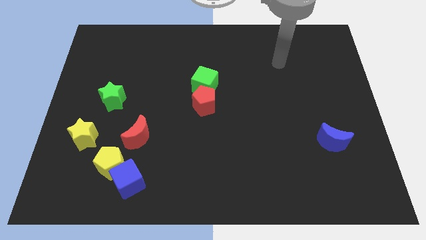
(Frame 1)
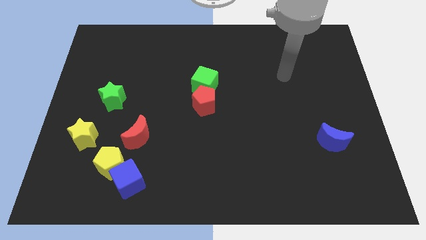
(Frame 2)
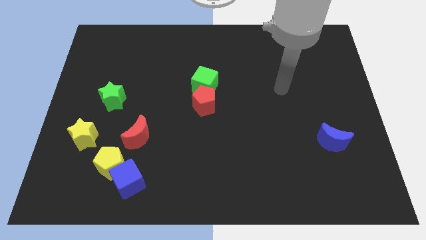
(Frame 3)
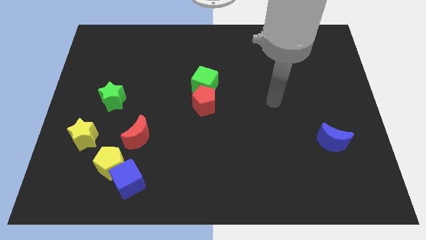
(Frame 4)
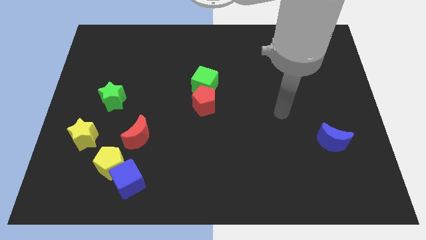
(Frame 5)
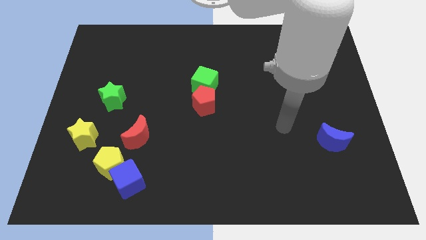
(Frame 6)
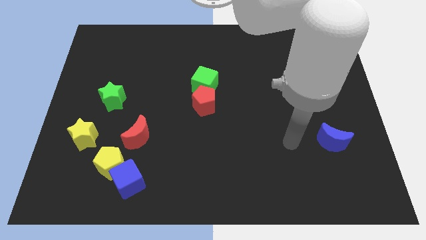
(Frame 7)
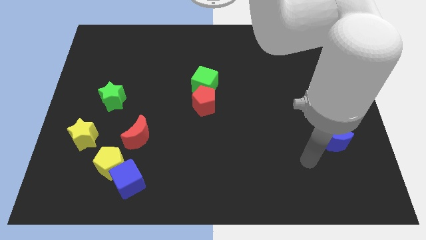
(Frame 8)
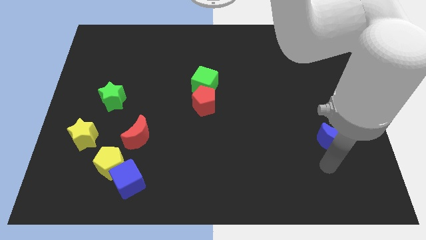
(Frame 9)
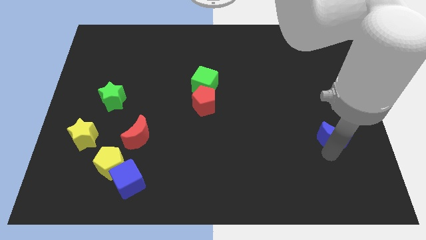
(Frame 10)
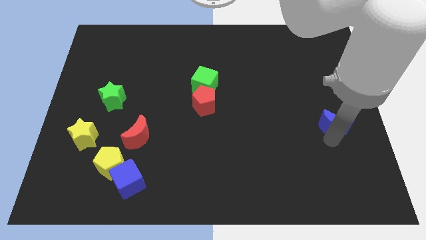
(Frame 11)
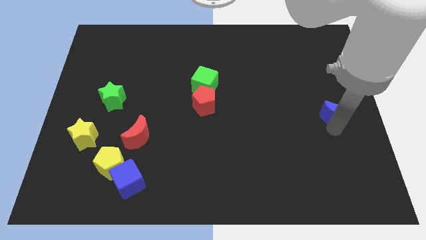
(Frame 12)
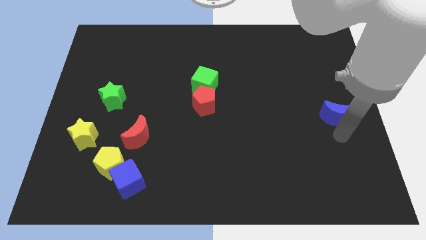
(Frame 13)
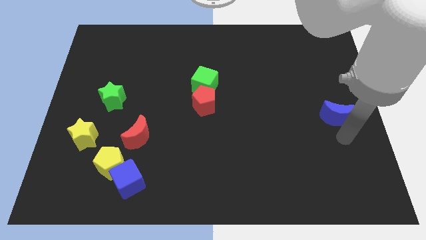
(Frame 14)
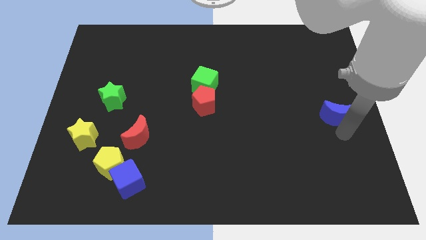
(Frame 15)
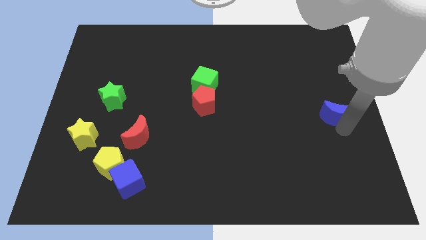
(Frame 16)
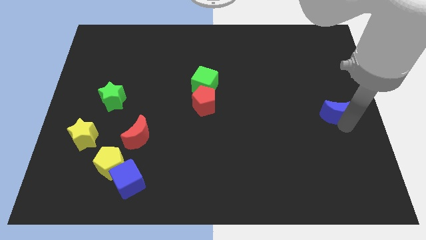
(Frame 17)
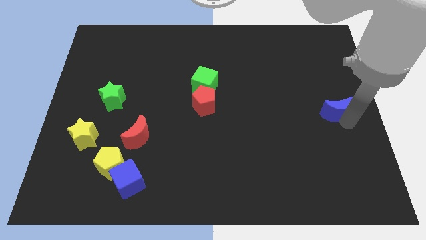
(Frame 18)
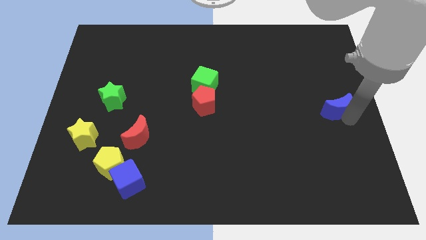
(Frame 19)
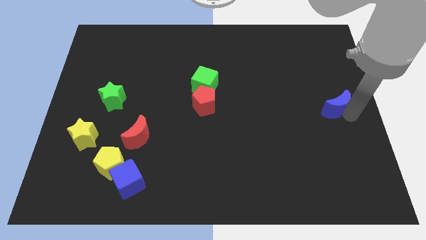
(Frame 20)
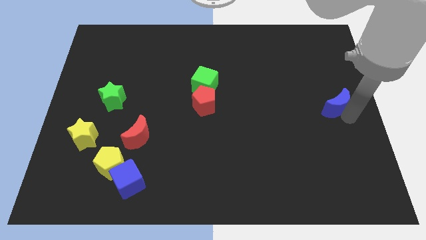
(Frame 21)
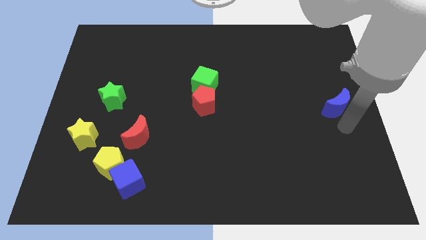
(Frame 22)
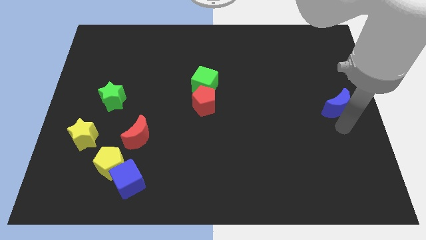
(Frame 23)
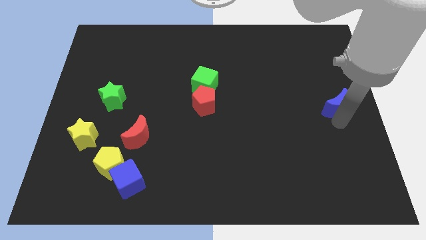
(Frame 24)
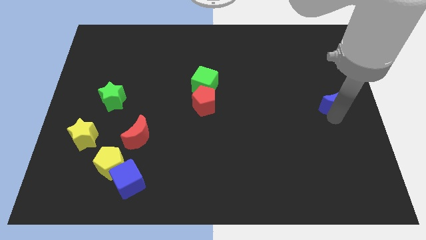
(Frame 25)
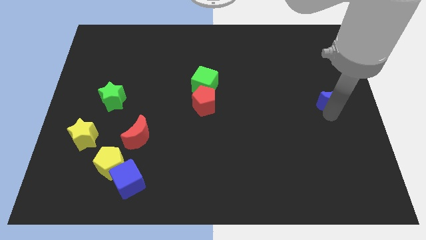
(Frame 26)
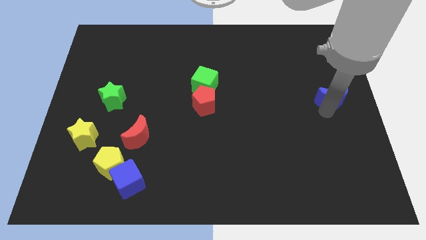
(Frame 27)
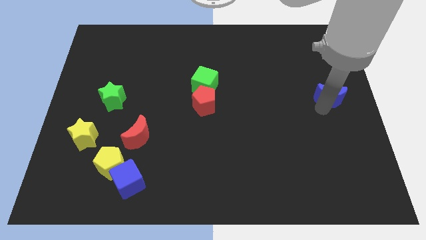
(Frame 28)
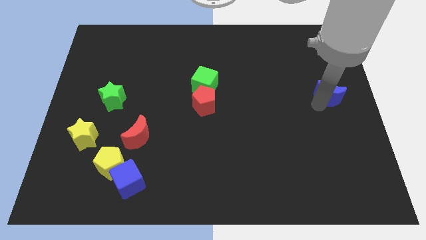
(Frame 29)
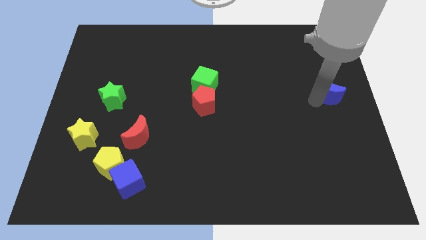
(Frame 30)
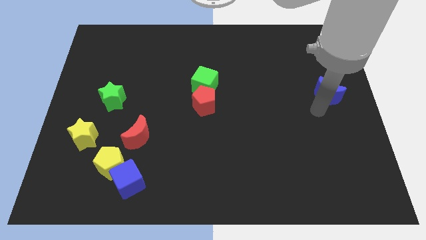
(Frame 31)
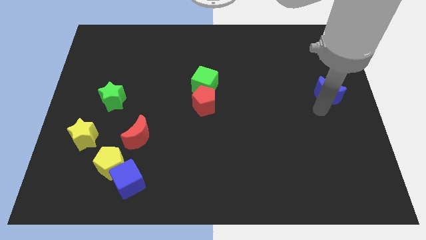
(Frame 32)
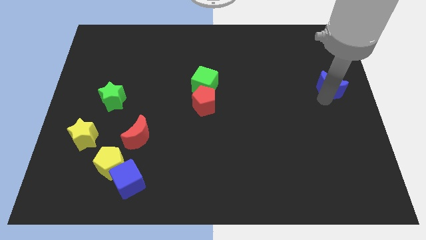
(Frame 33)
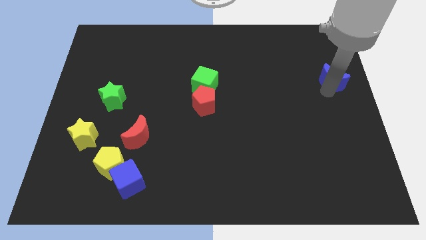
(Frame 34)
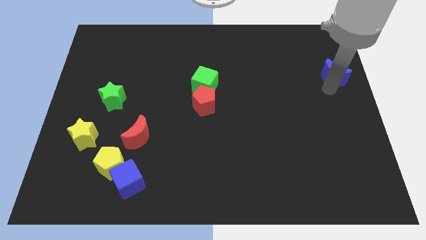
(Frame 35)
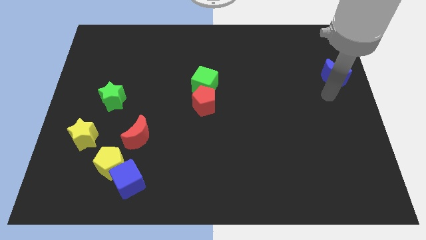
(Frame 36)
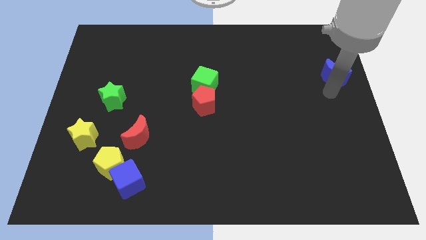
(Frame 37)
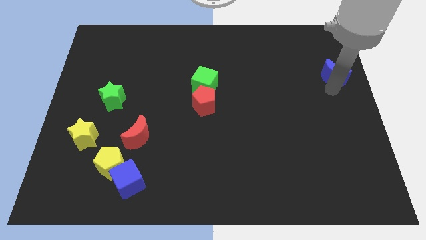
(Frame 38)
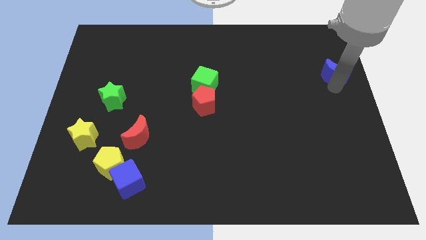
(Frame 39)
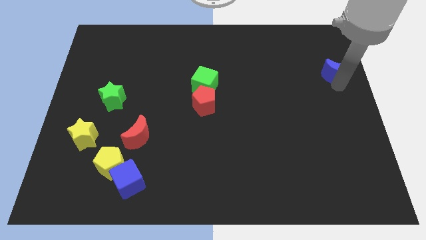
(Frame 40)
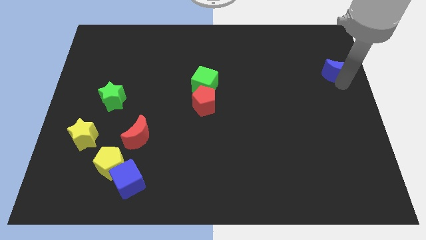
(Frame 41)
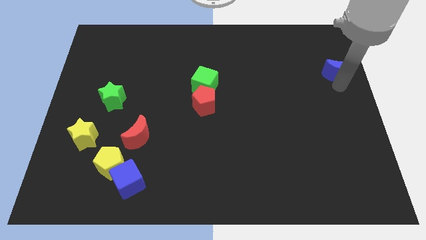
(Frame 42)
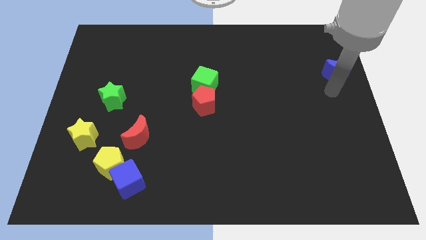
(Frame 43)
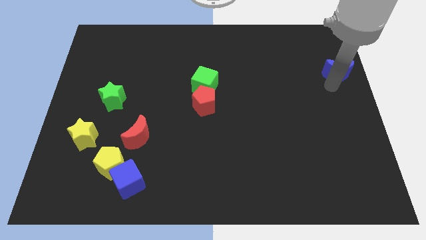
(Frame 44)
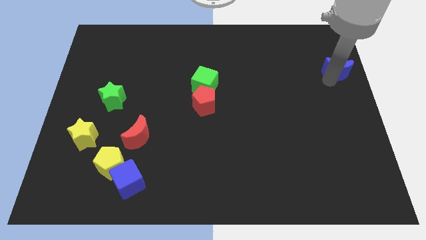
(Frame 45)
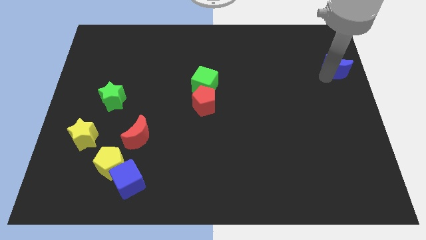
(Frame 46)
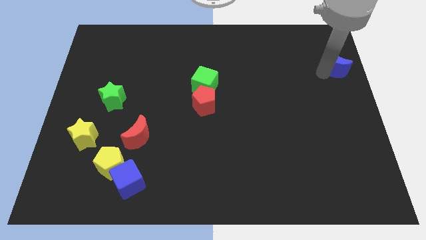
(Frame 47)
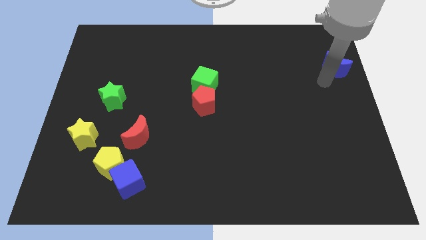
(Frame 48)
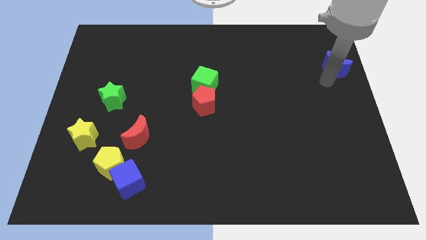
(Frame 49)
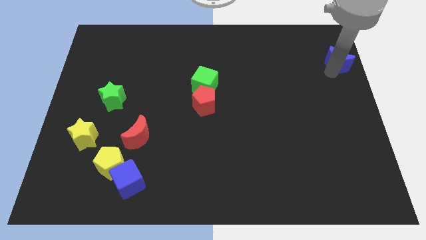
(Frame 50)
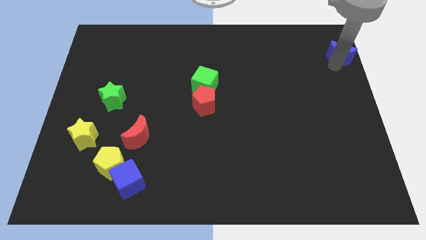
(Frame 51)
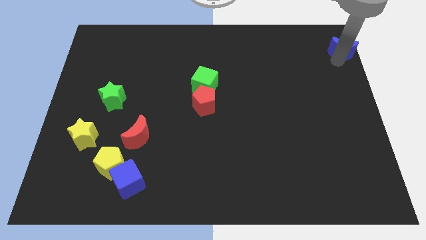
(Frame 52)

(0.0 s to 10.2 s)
move the blue moon to the top right of the board

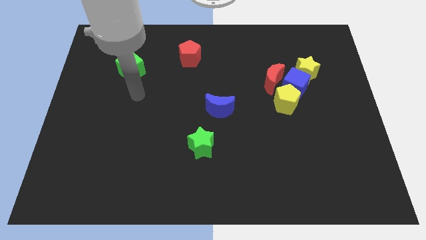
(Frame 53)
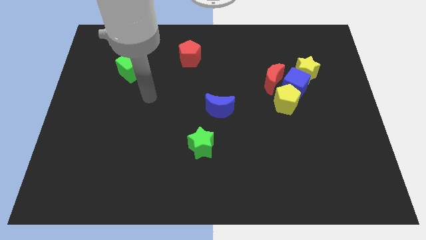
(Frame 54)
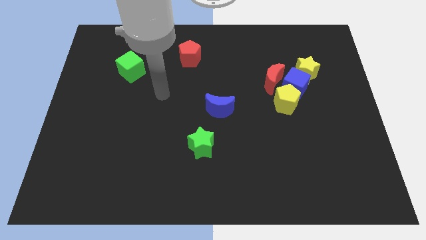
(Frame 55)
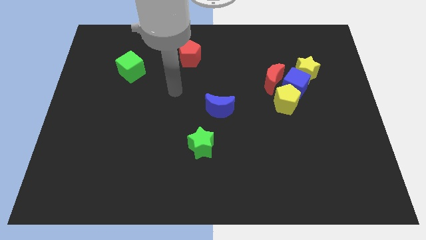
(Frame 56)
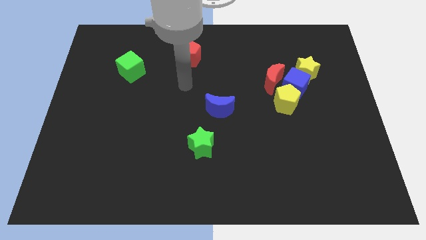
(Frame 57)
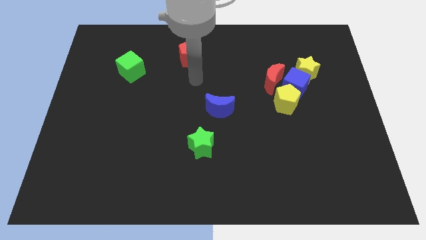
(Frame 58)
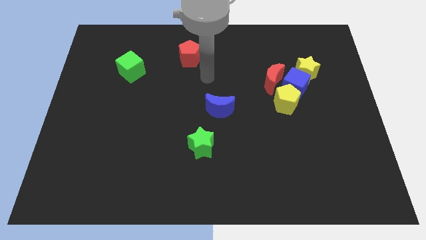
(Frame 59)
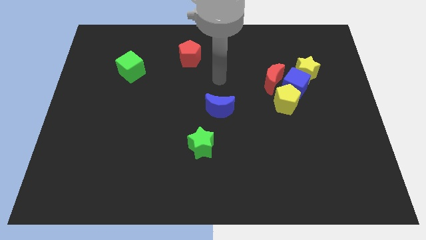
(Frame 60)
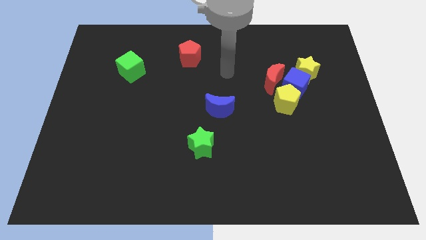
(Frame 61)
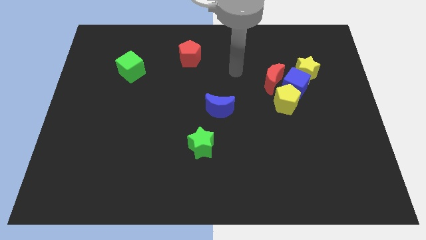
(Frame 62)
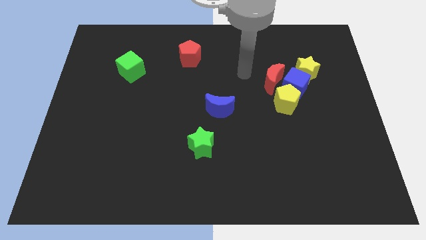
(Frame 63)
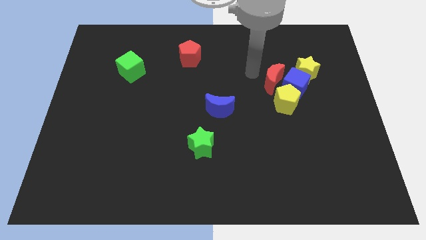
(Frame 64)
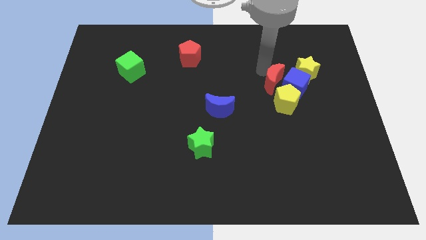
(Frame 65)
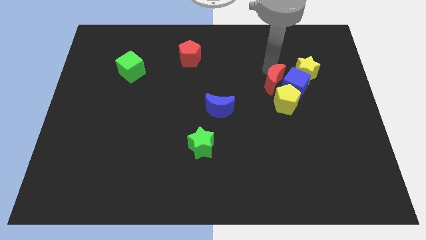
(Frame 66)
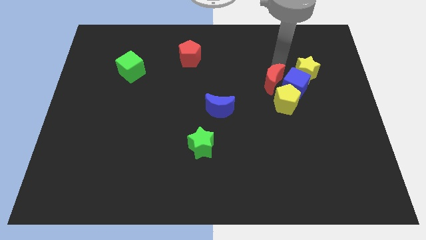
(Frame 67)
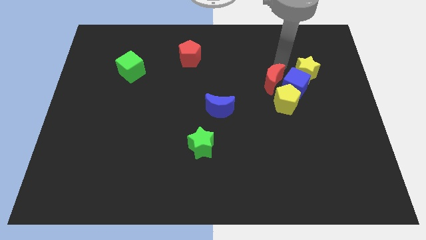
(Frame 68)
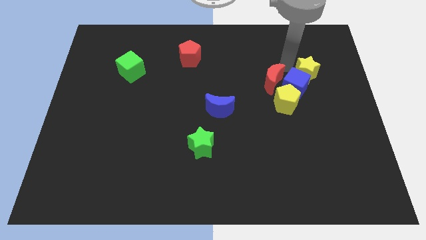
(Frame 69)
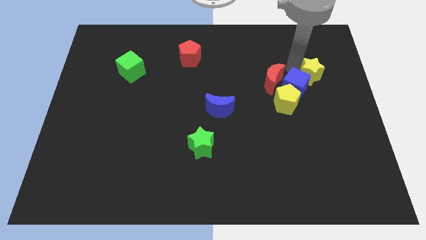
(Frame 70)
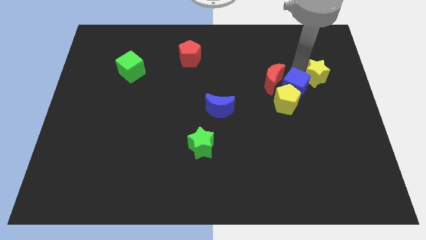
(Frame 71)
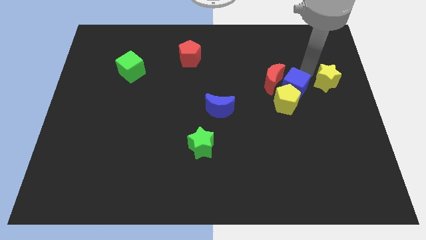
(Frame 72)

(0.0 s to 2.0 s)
push the yellow star to the right side of the board

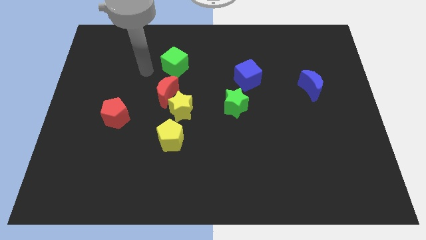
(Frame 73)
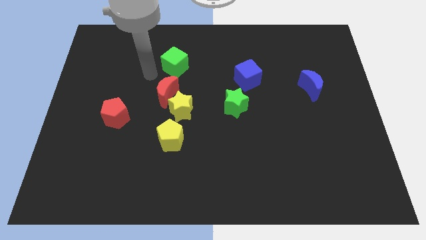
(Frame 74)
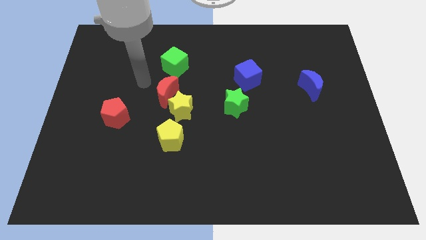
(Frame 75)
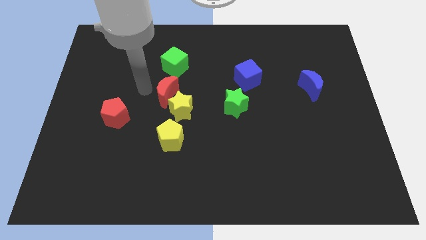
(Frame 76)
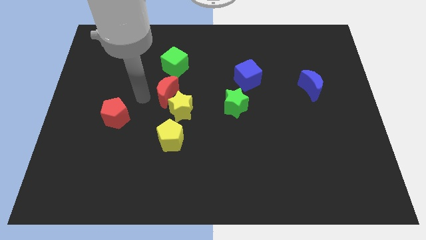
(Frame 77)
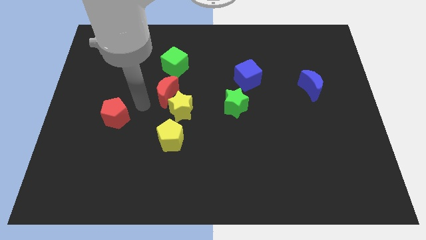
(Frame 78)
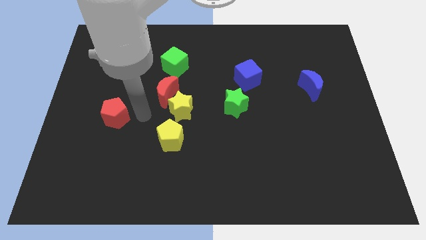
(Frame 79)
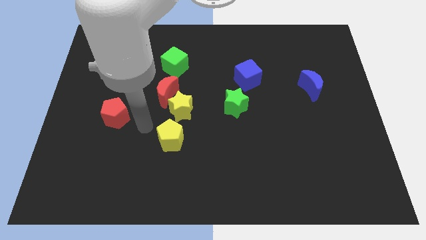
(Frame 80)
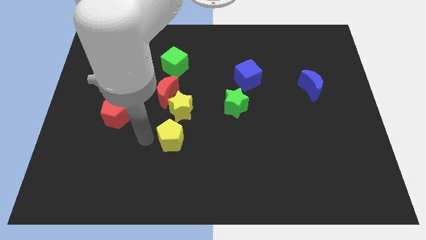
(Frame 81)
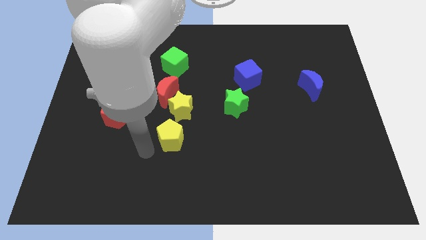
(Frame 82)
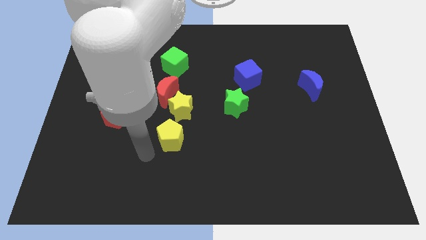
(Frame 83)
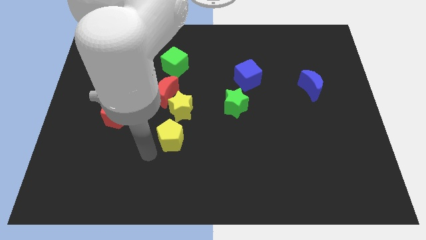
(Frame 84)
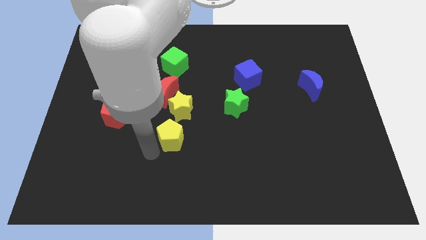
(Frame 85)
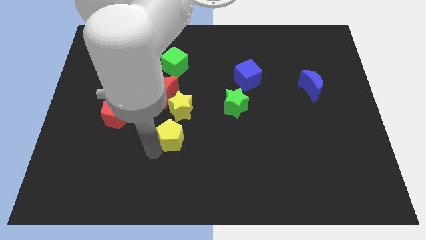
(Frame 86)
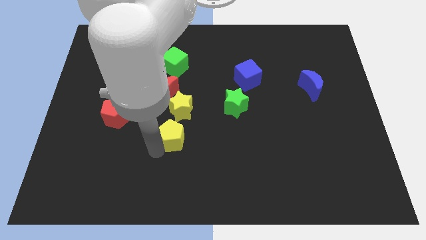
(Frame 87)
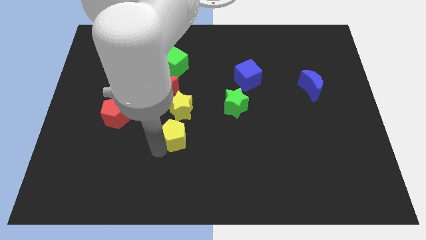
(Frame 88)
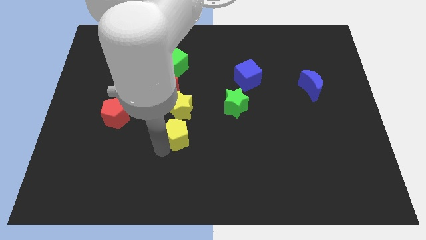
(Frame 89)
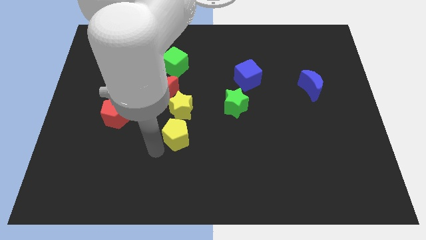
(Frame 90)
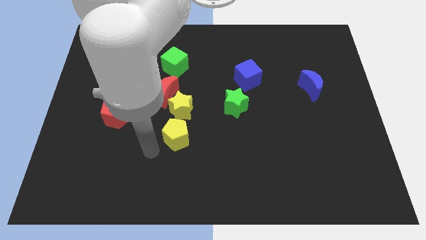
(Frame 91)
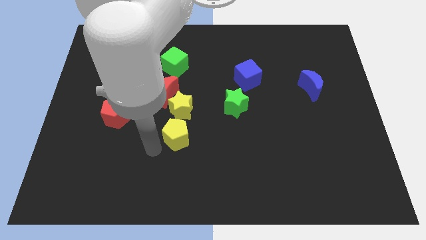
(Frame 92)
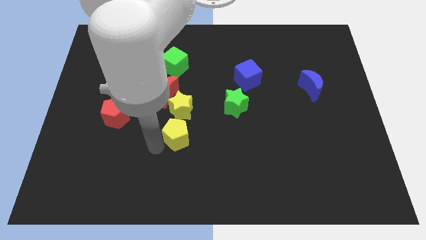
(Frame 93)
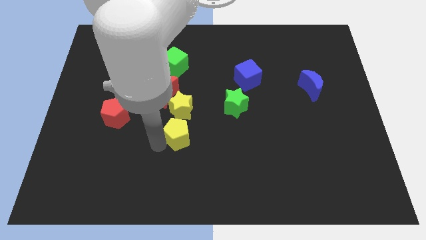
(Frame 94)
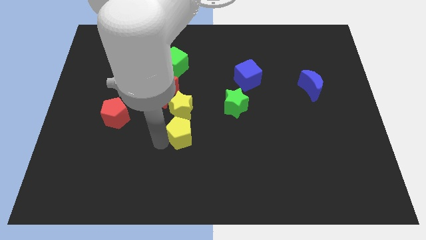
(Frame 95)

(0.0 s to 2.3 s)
move the yellow pentagon to the center
